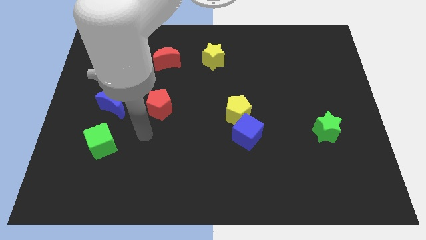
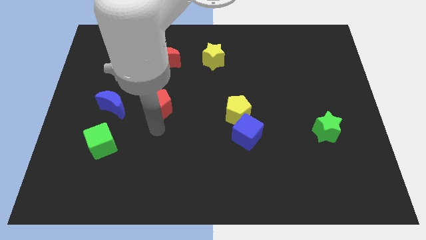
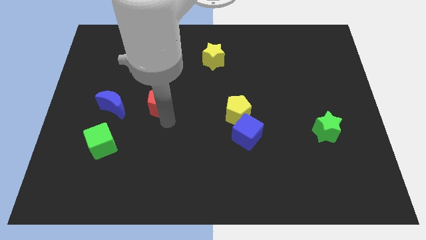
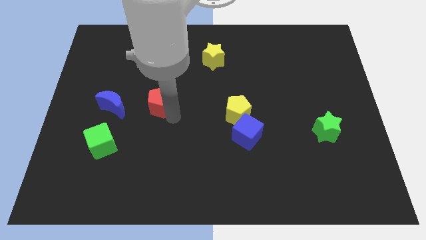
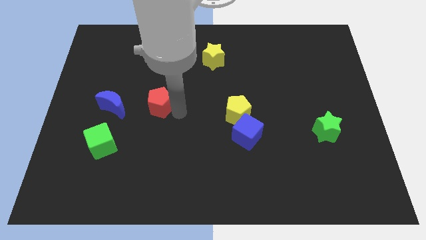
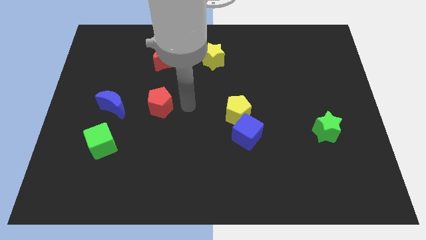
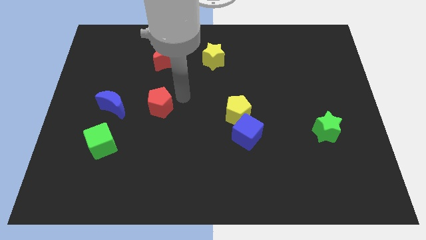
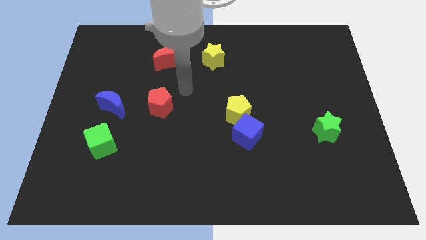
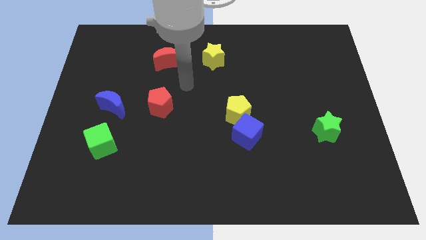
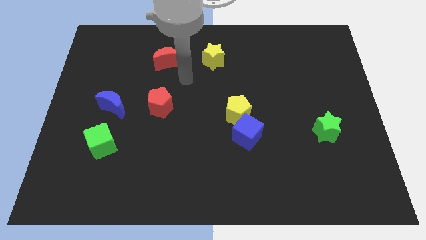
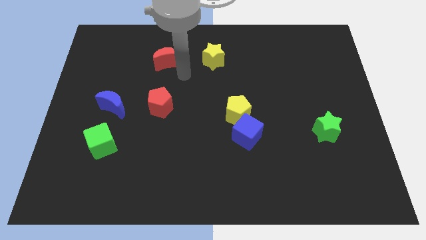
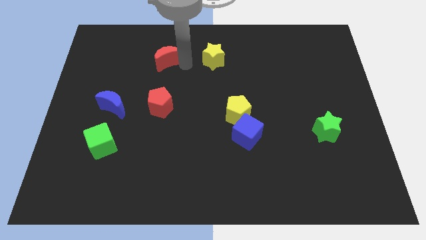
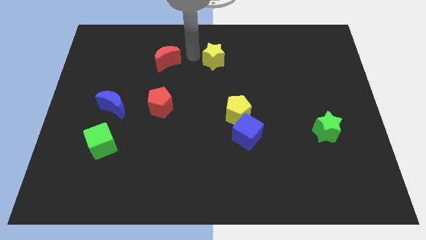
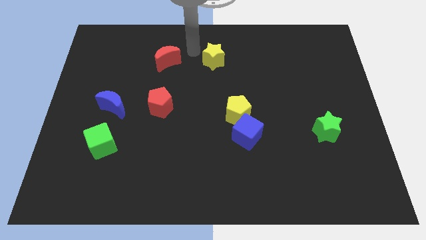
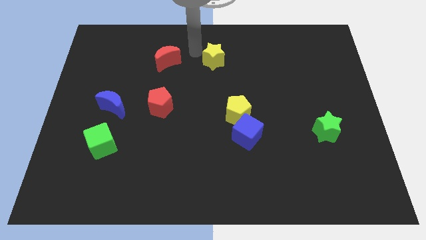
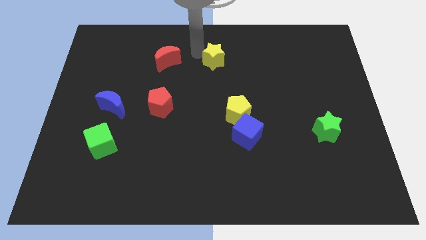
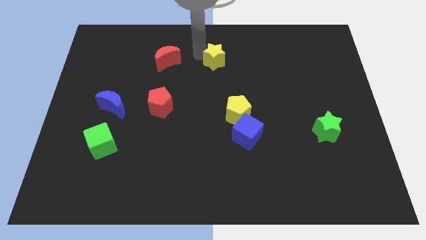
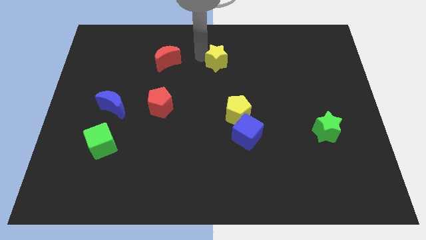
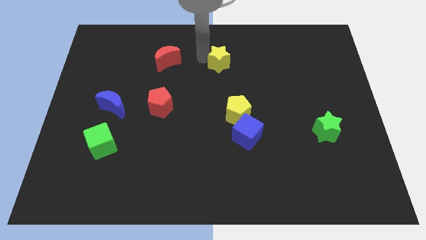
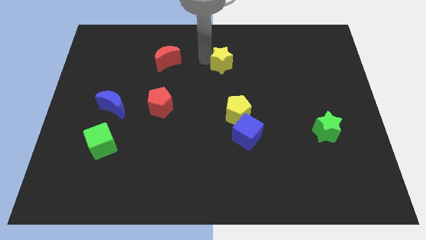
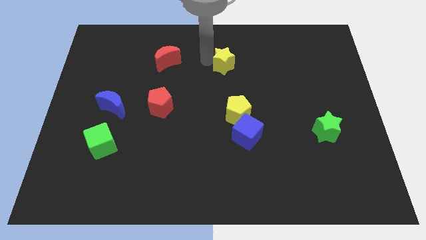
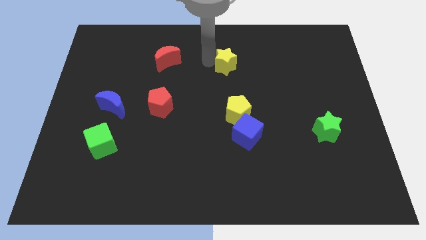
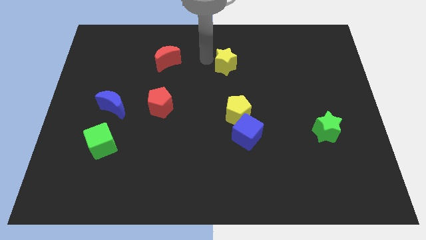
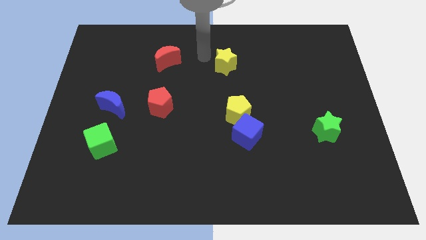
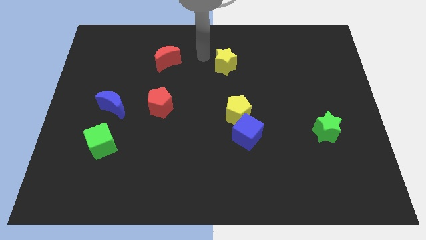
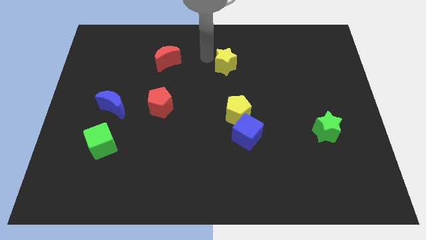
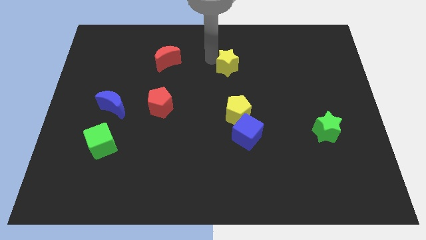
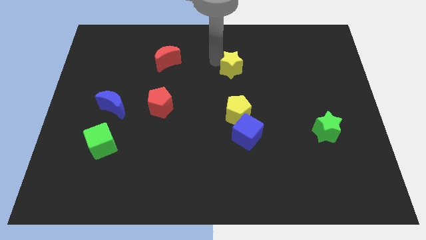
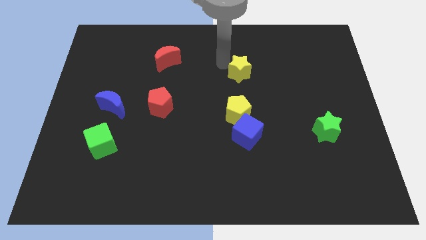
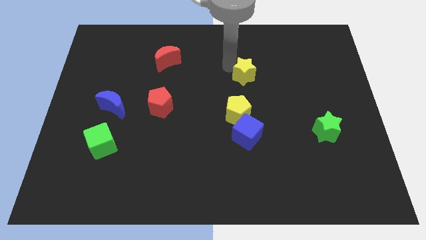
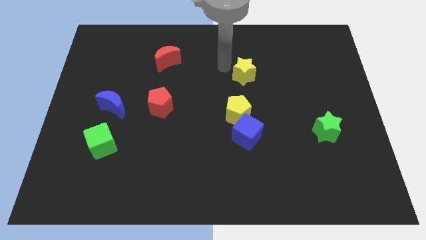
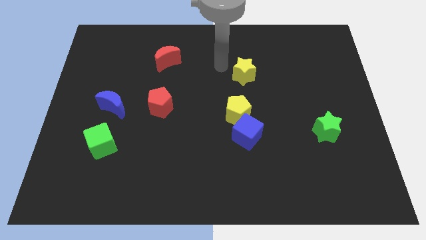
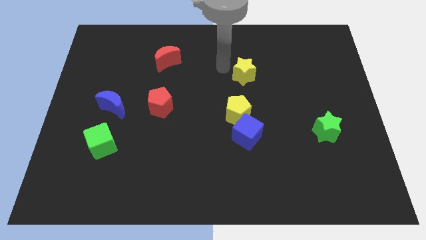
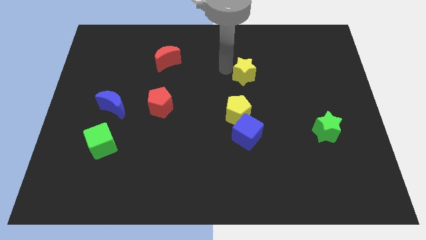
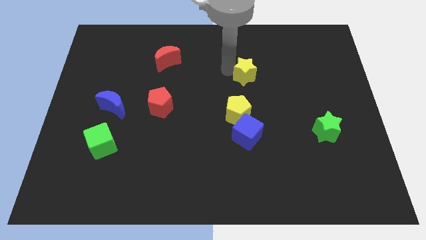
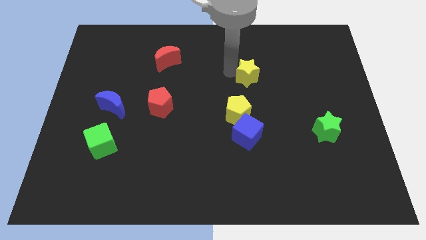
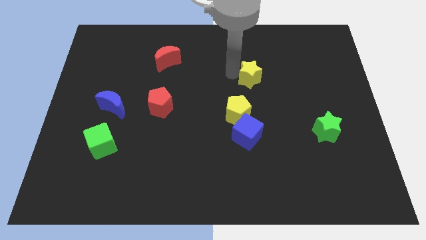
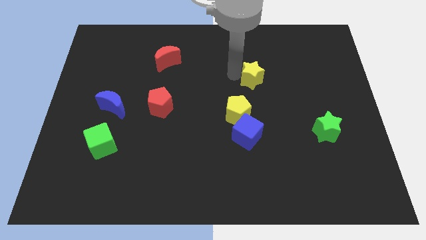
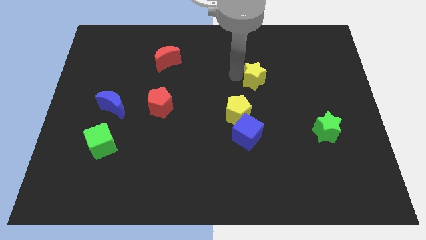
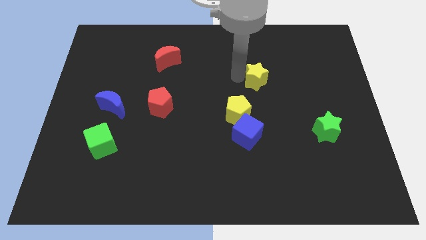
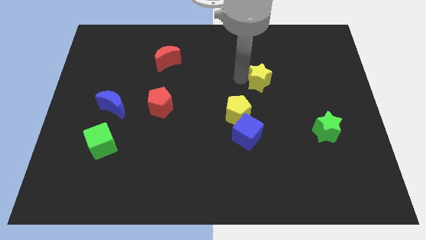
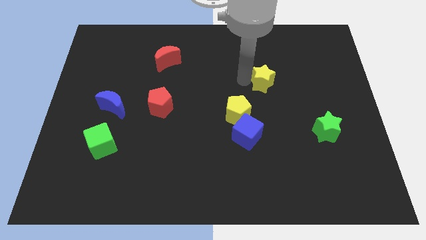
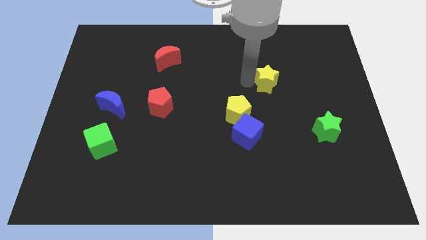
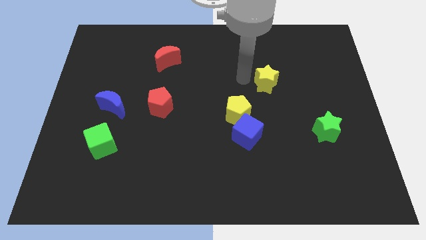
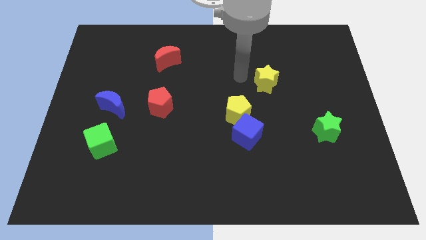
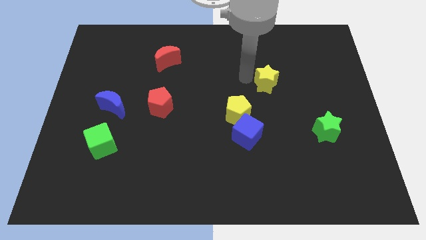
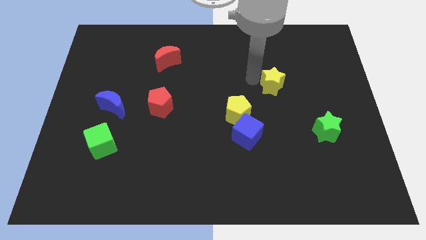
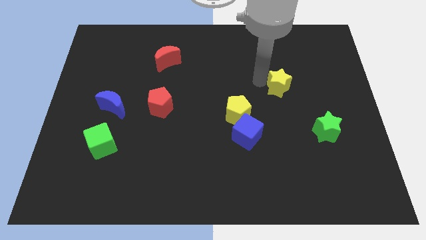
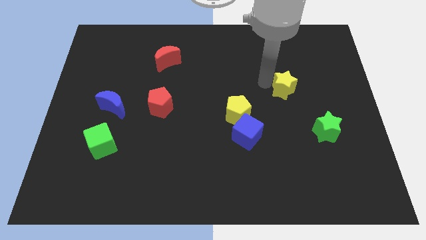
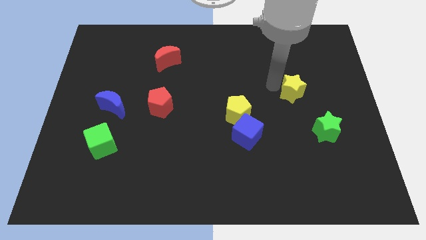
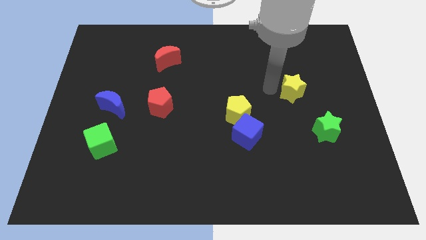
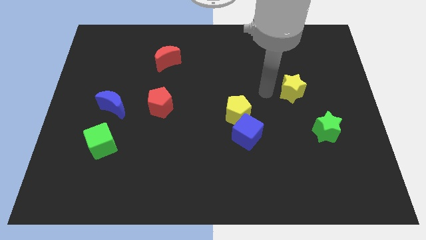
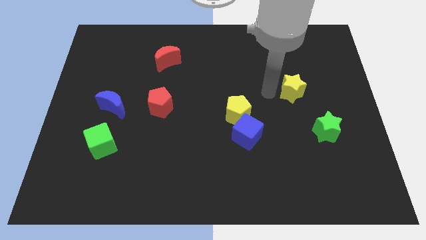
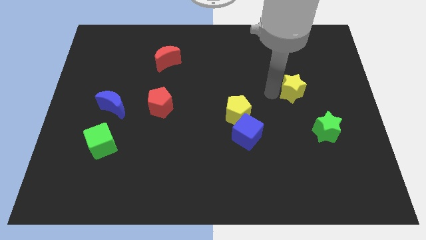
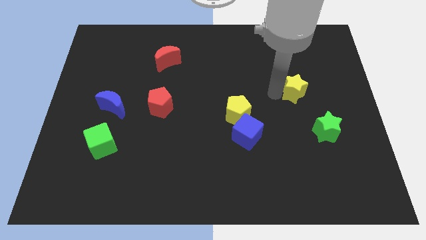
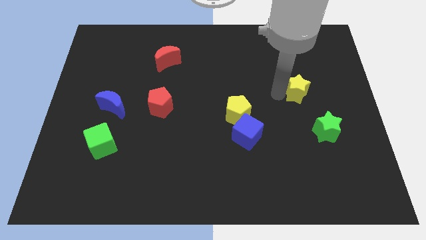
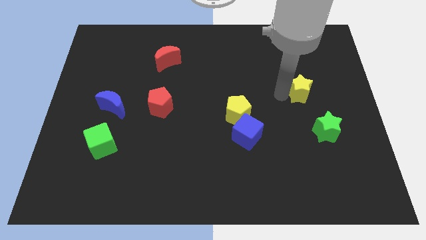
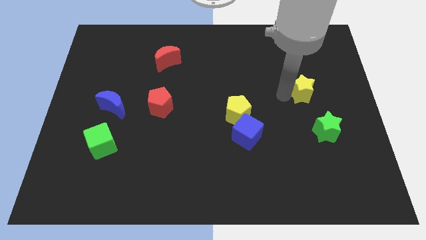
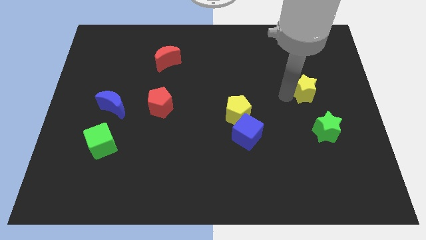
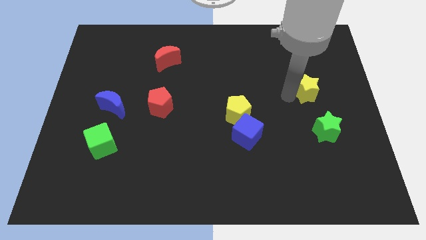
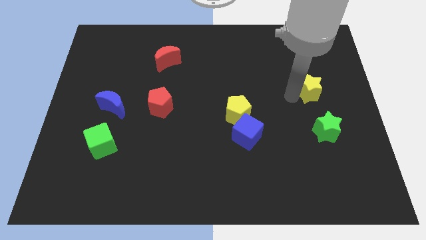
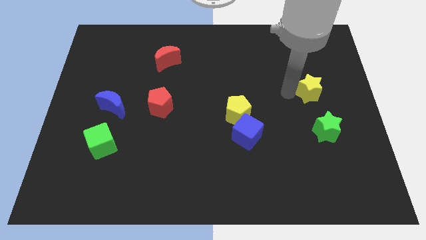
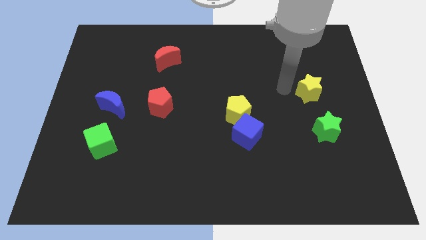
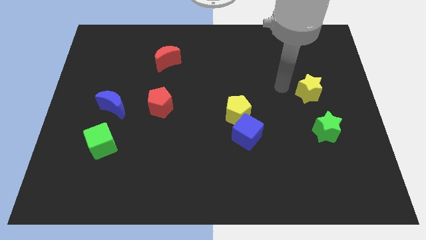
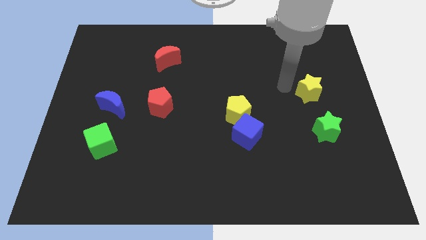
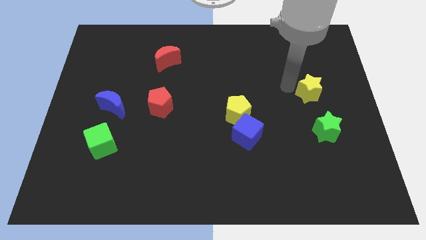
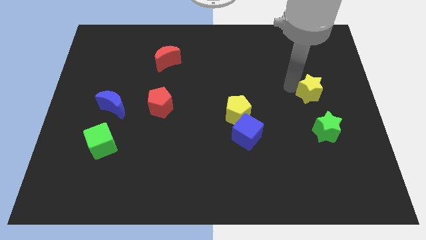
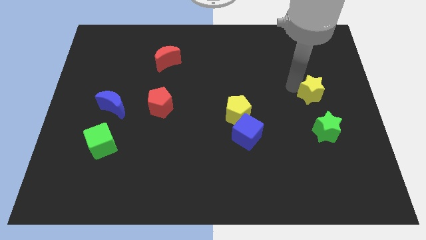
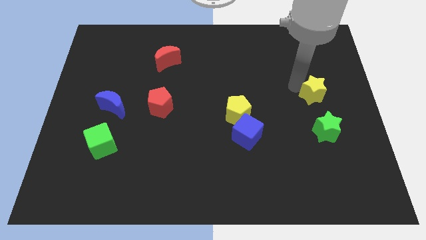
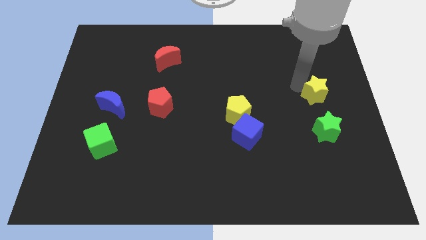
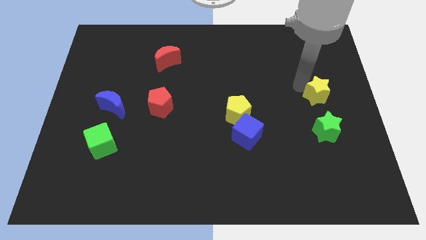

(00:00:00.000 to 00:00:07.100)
move the yellow star to the right side of the board
